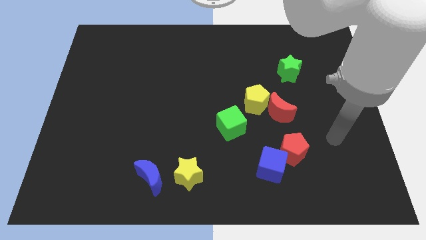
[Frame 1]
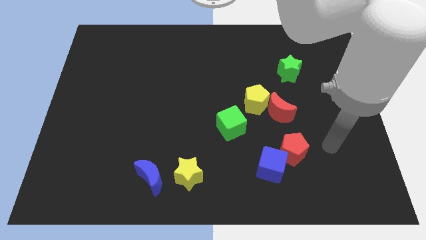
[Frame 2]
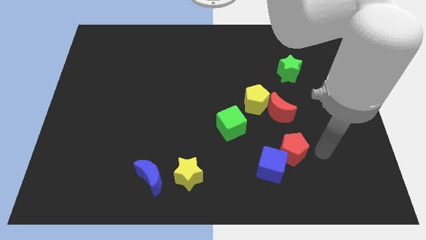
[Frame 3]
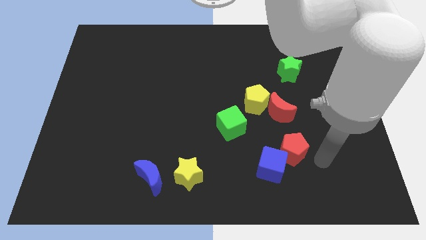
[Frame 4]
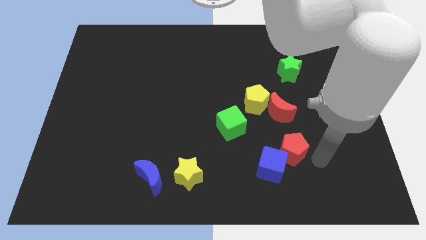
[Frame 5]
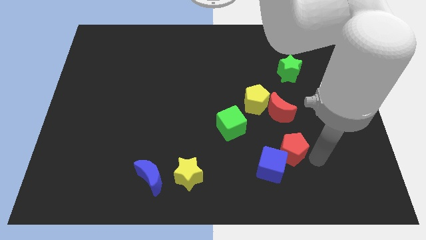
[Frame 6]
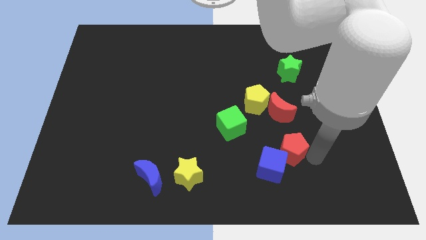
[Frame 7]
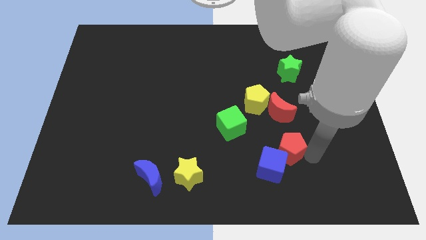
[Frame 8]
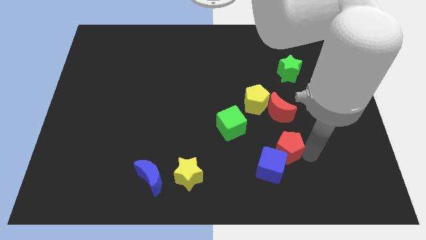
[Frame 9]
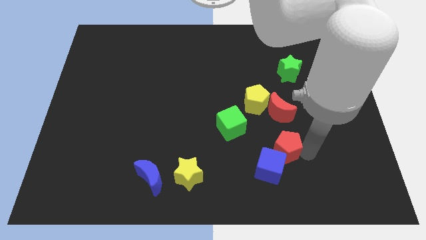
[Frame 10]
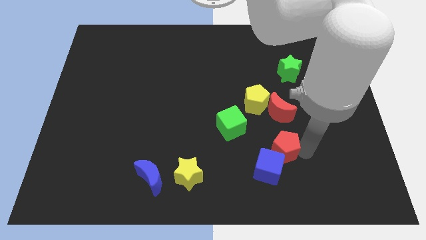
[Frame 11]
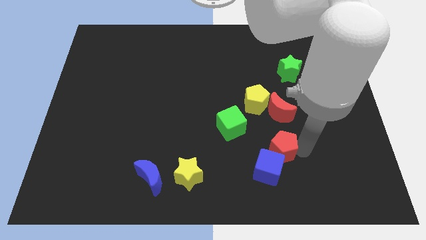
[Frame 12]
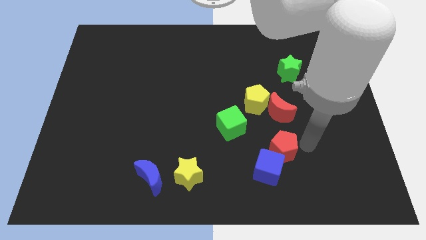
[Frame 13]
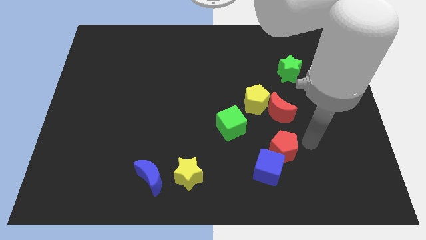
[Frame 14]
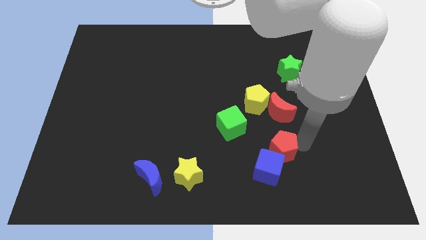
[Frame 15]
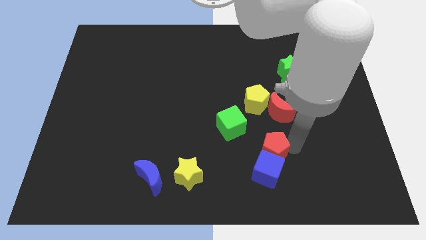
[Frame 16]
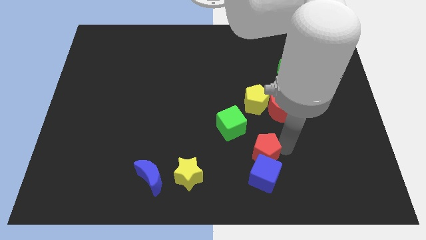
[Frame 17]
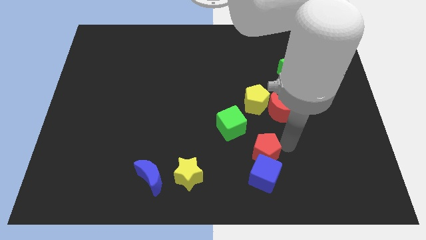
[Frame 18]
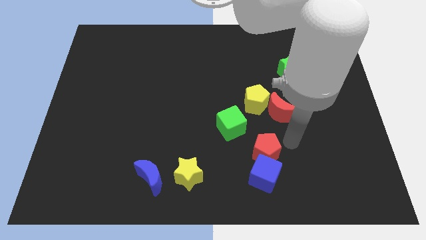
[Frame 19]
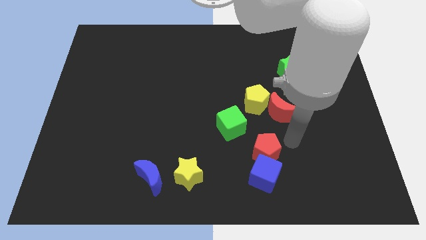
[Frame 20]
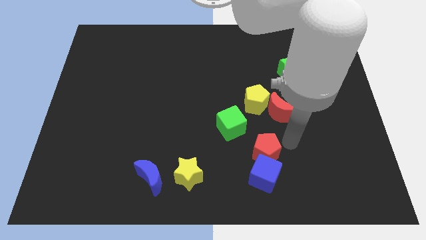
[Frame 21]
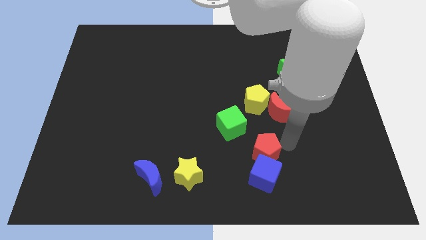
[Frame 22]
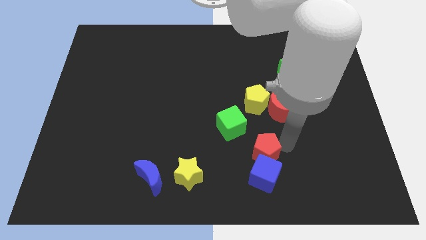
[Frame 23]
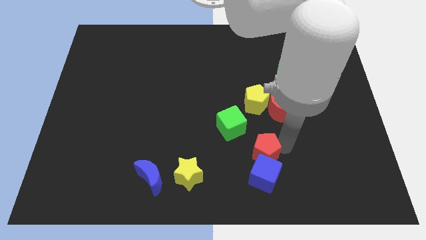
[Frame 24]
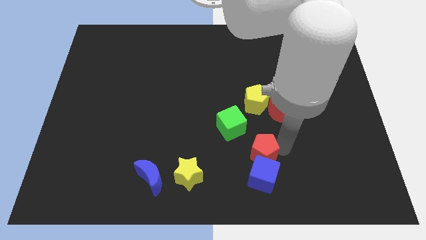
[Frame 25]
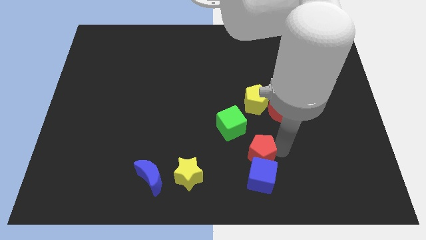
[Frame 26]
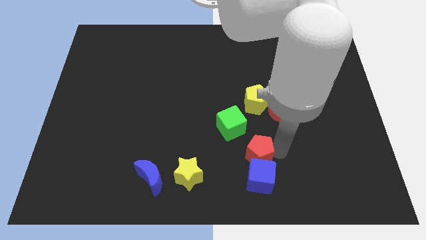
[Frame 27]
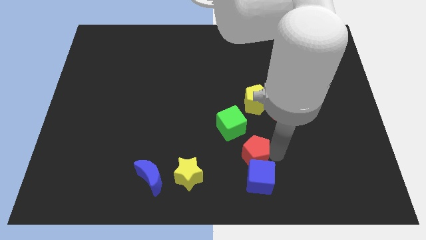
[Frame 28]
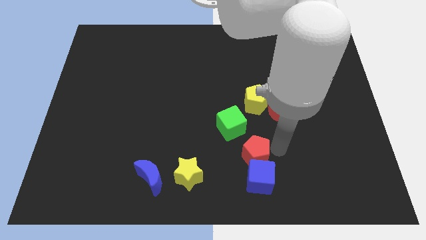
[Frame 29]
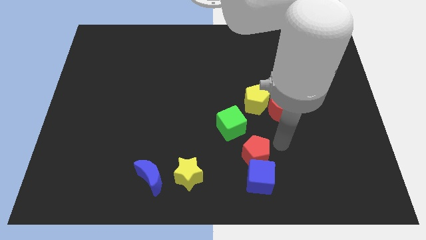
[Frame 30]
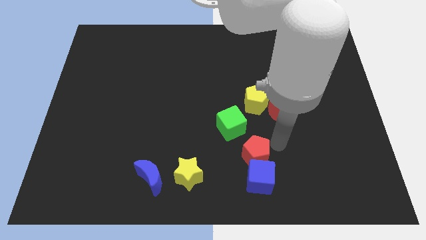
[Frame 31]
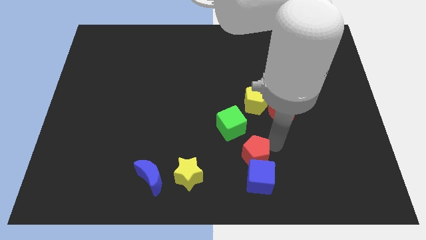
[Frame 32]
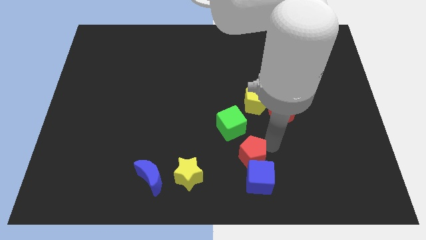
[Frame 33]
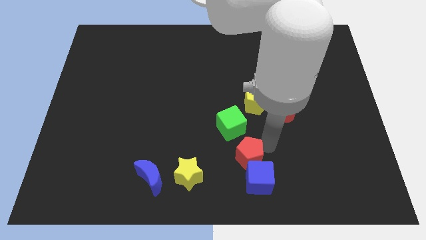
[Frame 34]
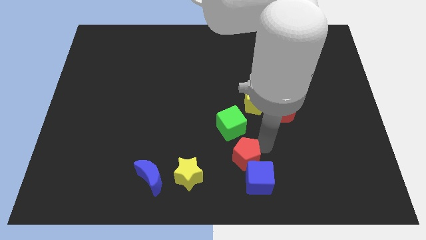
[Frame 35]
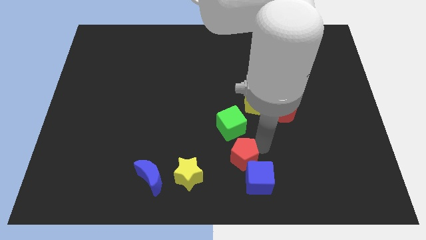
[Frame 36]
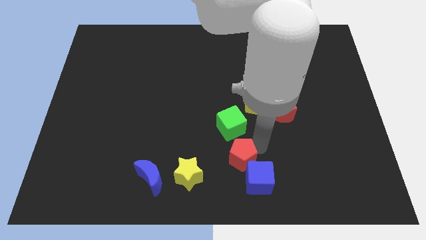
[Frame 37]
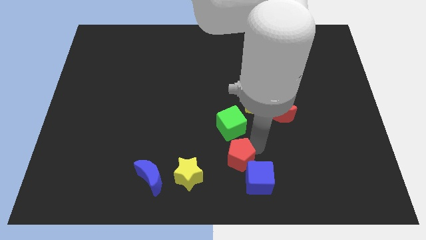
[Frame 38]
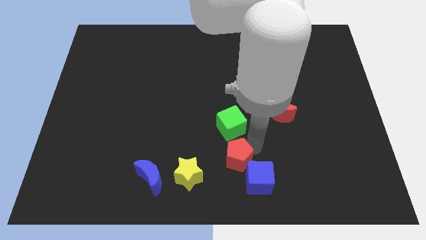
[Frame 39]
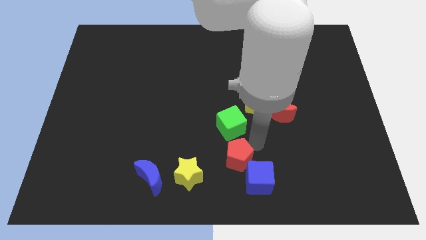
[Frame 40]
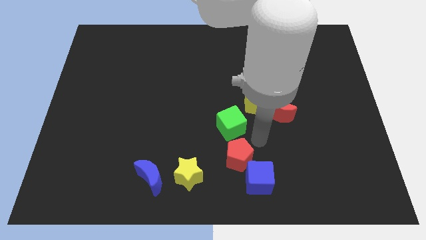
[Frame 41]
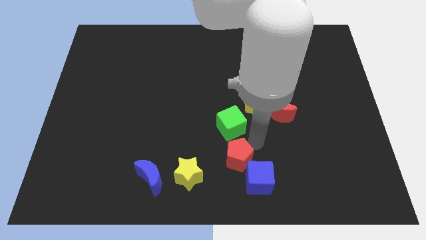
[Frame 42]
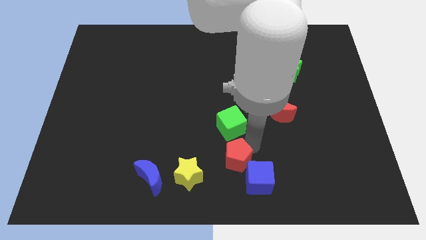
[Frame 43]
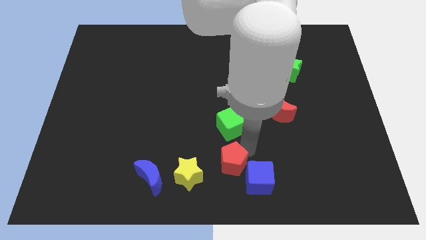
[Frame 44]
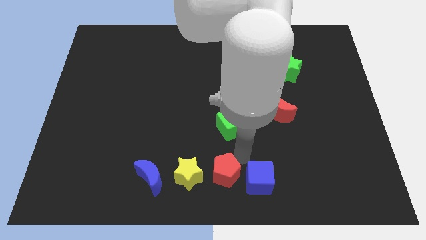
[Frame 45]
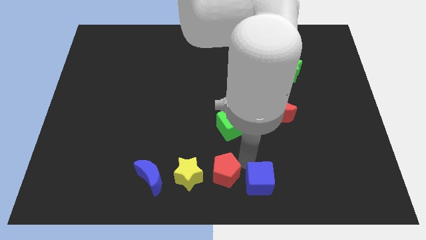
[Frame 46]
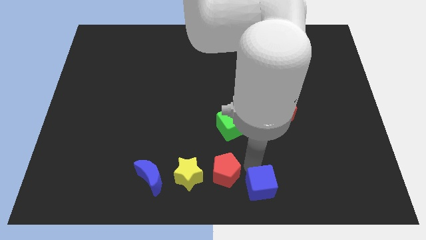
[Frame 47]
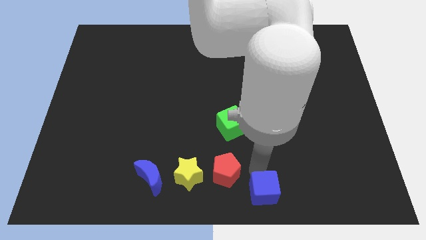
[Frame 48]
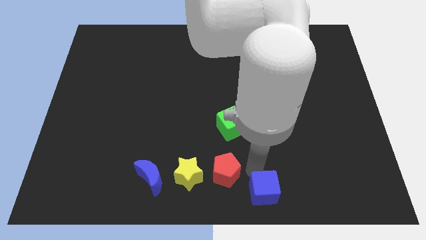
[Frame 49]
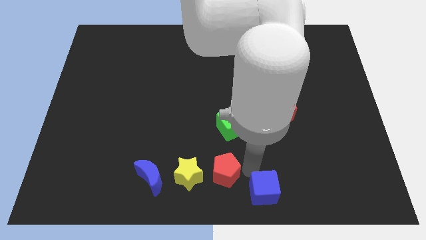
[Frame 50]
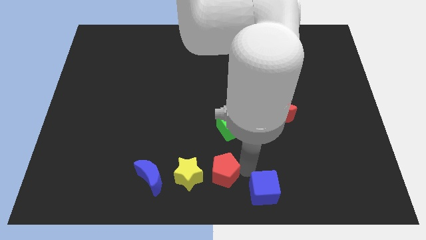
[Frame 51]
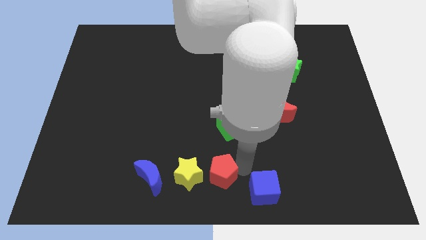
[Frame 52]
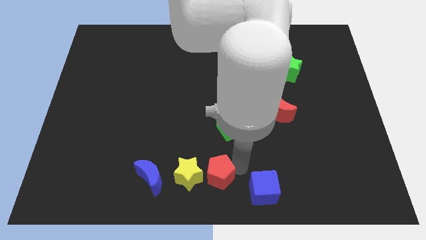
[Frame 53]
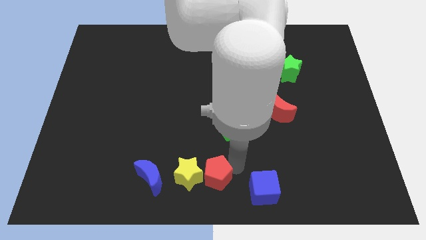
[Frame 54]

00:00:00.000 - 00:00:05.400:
slide the red pentagon close to the yellow star
